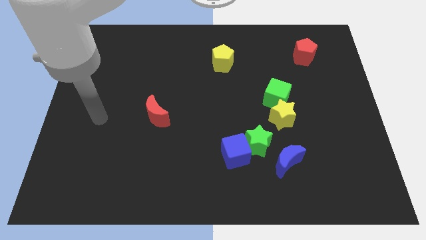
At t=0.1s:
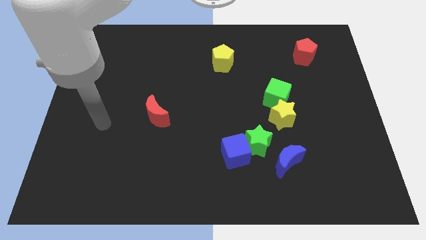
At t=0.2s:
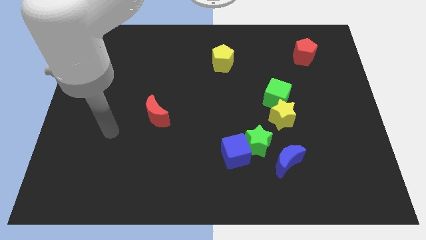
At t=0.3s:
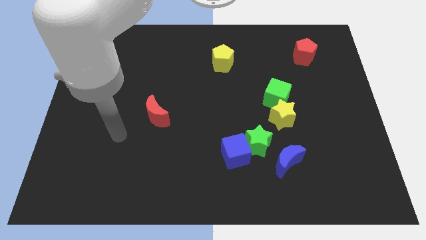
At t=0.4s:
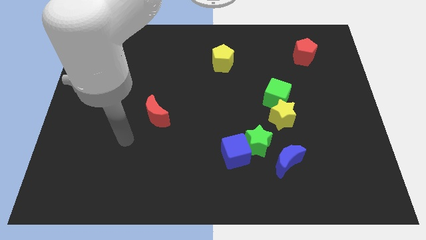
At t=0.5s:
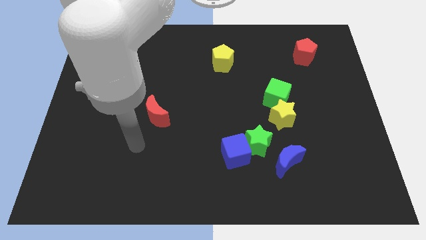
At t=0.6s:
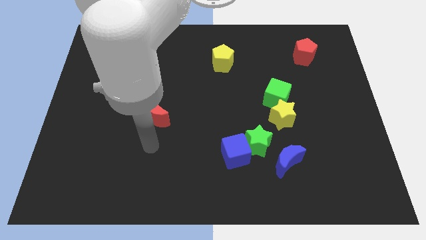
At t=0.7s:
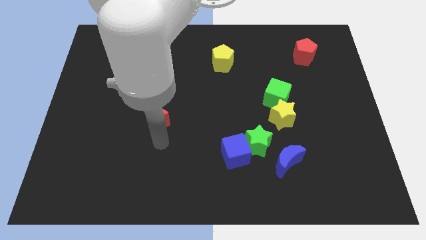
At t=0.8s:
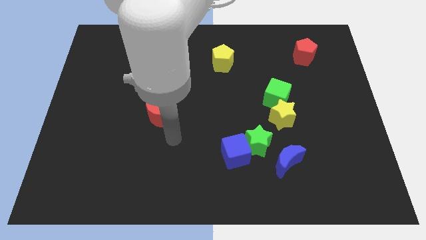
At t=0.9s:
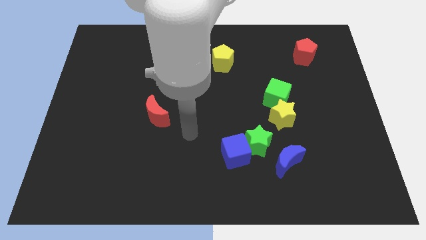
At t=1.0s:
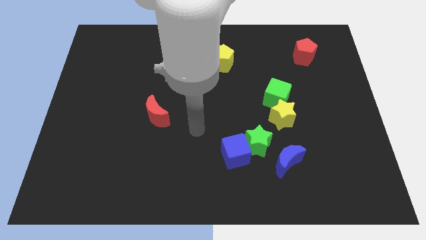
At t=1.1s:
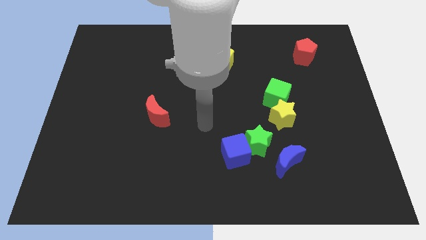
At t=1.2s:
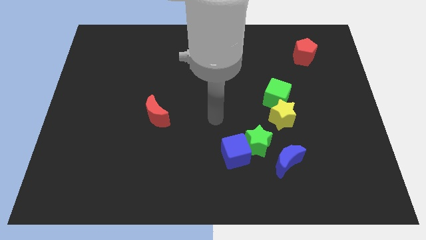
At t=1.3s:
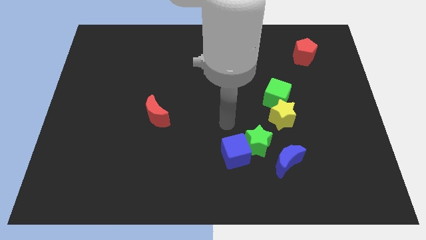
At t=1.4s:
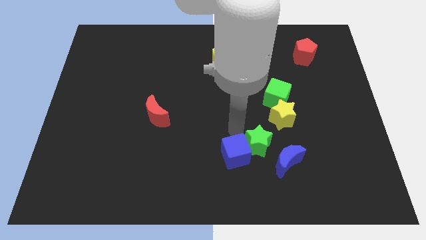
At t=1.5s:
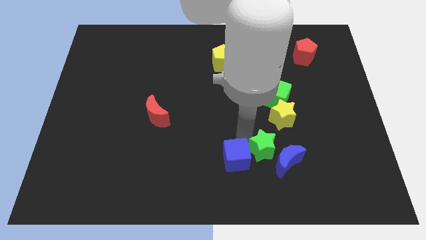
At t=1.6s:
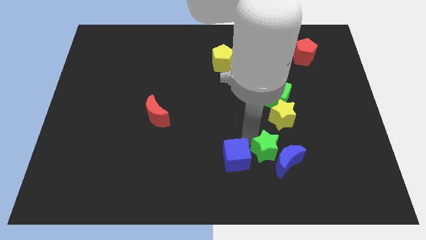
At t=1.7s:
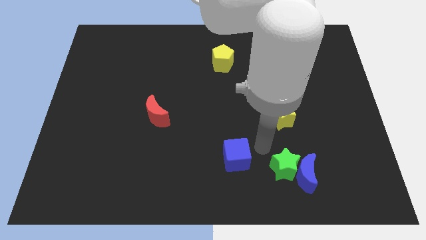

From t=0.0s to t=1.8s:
separate the blue cube from the green star

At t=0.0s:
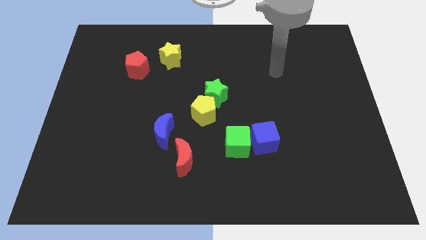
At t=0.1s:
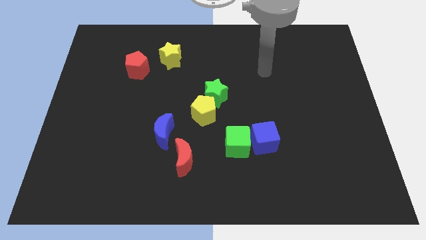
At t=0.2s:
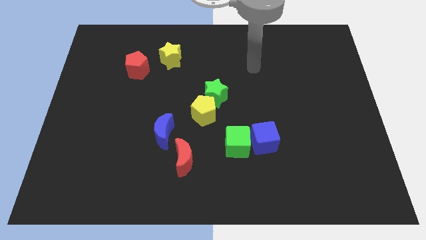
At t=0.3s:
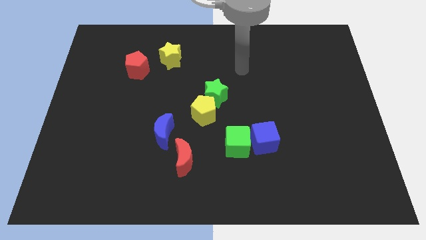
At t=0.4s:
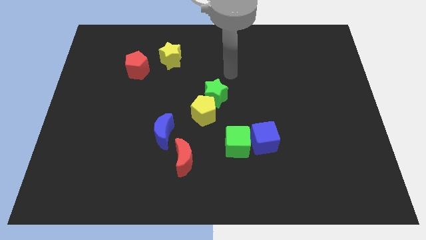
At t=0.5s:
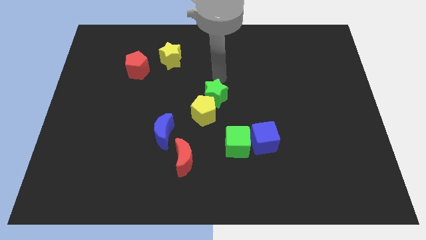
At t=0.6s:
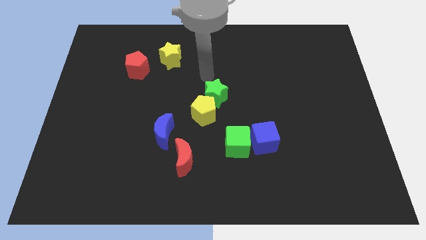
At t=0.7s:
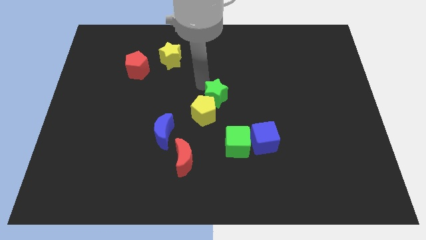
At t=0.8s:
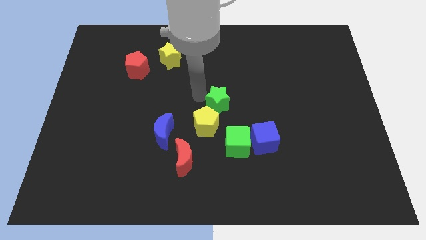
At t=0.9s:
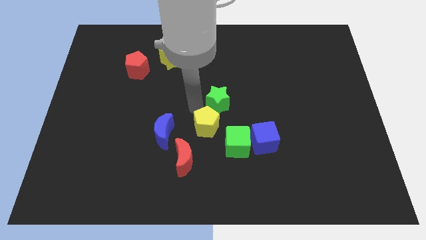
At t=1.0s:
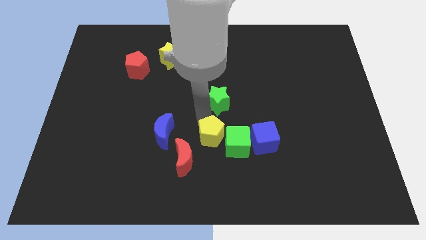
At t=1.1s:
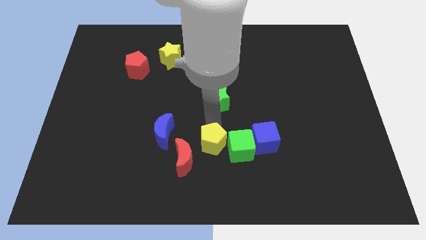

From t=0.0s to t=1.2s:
move the green star away from the yellow pentagon

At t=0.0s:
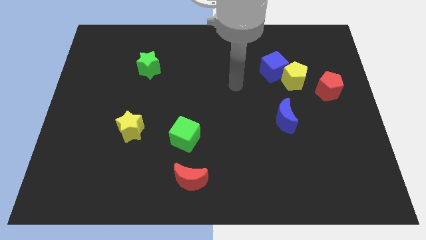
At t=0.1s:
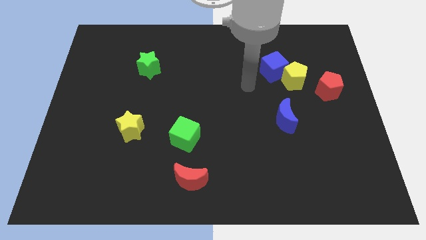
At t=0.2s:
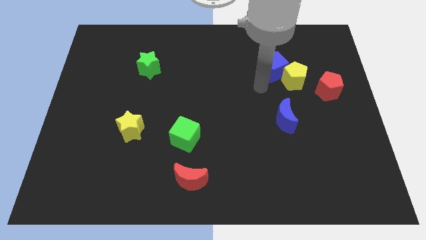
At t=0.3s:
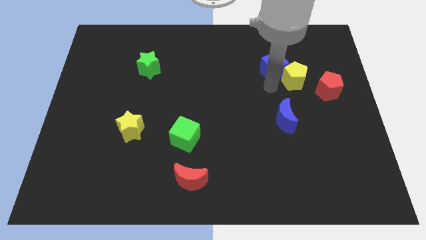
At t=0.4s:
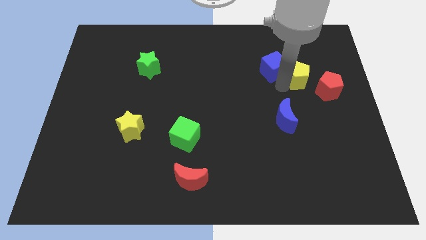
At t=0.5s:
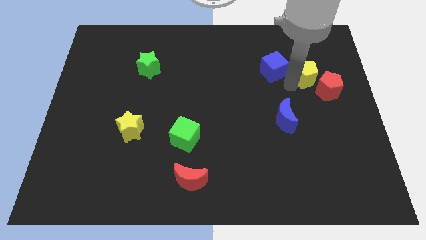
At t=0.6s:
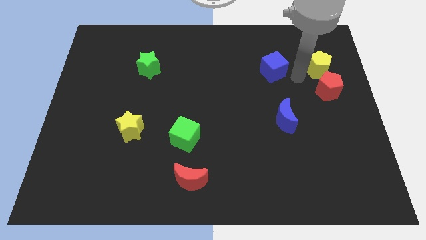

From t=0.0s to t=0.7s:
pull the blue cube apart from the yellow pentagon

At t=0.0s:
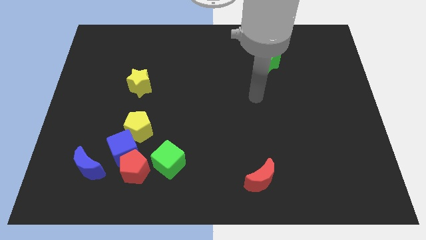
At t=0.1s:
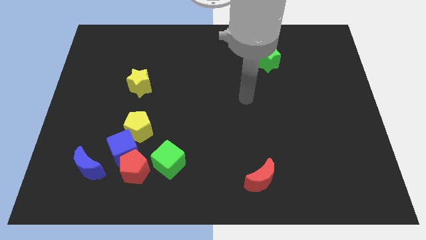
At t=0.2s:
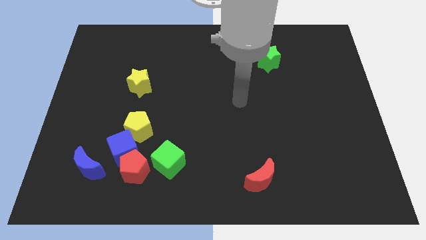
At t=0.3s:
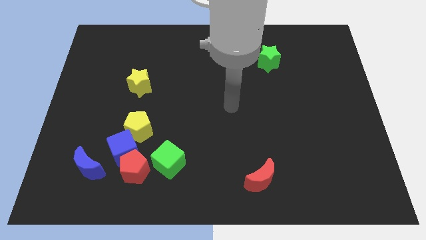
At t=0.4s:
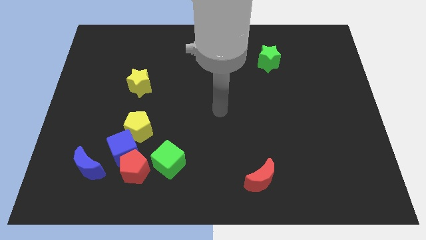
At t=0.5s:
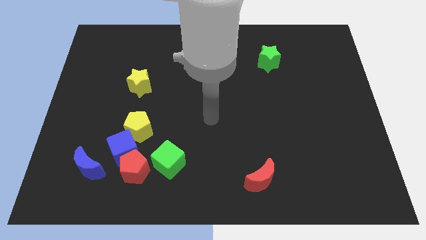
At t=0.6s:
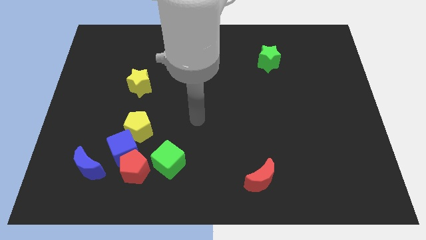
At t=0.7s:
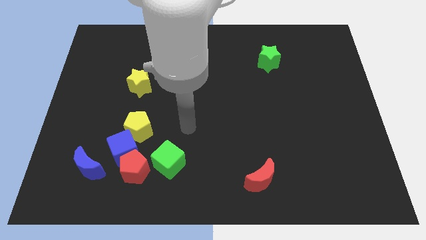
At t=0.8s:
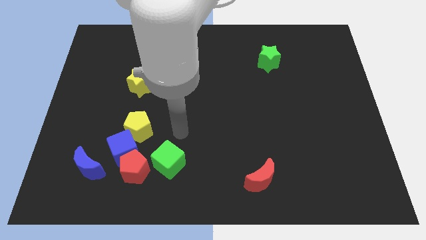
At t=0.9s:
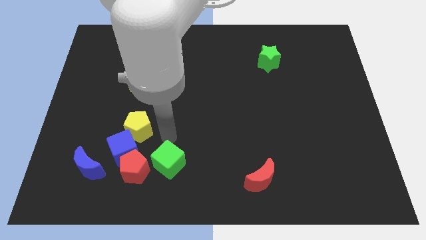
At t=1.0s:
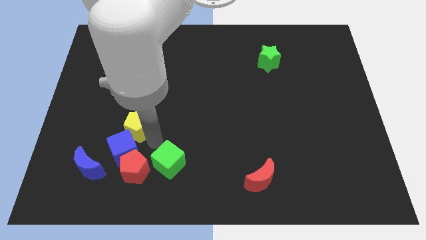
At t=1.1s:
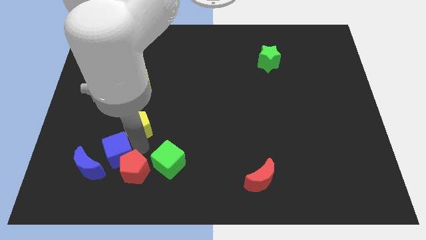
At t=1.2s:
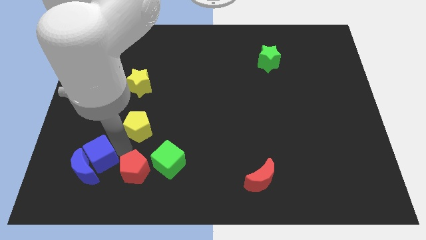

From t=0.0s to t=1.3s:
move the yellow pentagon away from the blue cube

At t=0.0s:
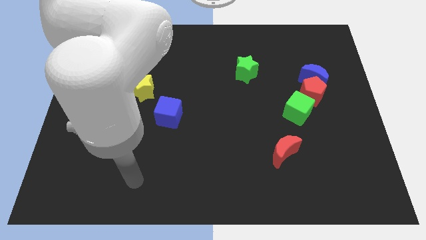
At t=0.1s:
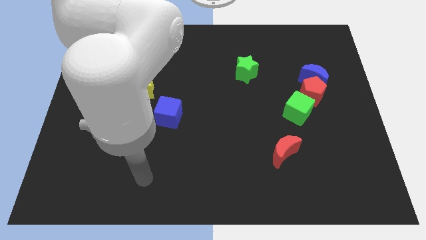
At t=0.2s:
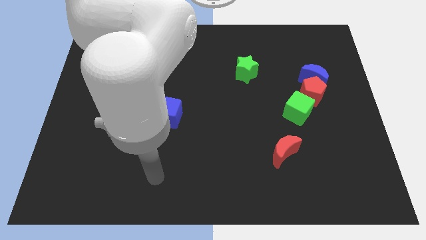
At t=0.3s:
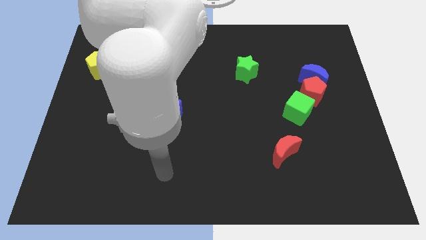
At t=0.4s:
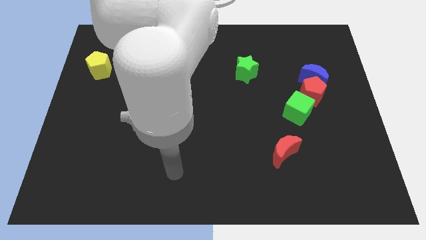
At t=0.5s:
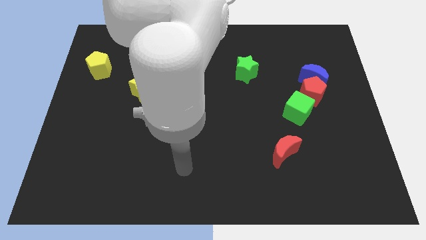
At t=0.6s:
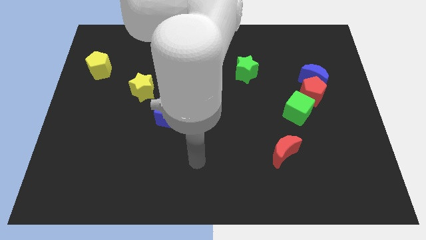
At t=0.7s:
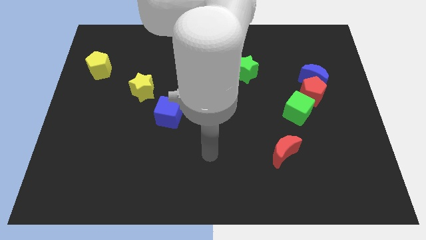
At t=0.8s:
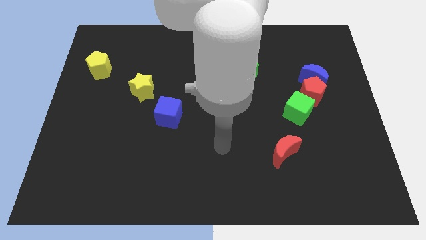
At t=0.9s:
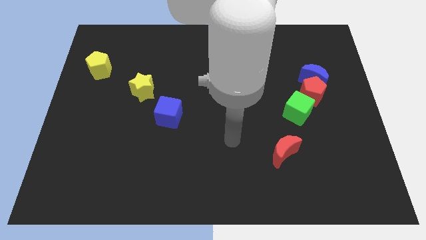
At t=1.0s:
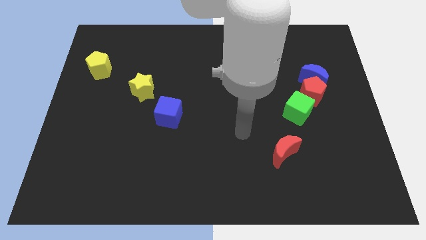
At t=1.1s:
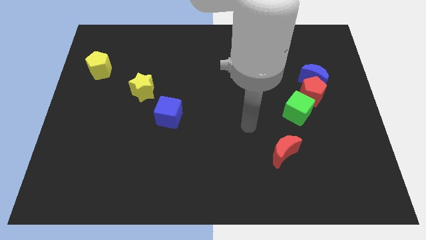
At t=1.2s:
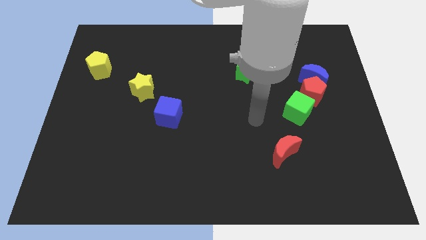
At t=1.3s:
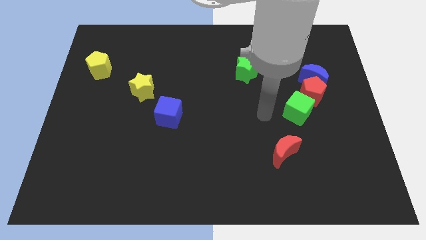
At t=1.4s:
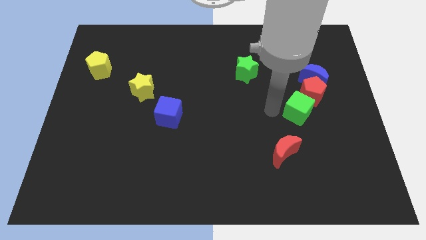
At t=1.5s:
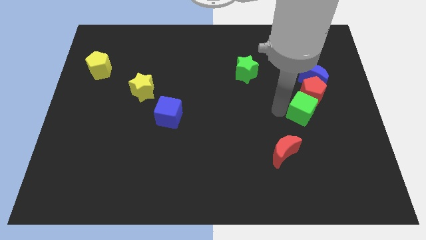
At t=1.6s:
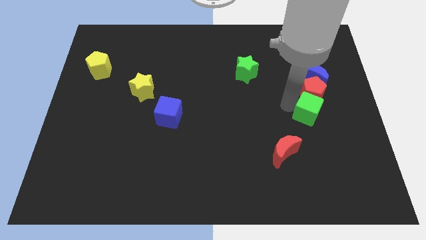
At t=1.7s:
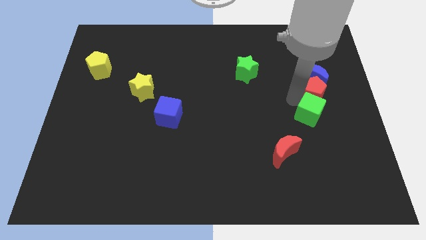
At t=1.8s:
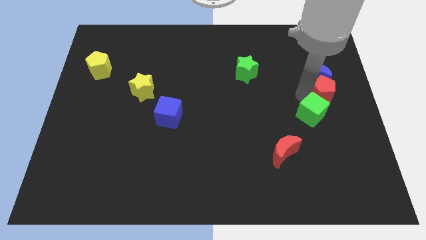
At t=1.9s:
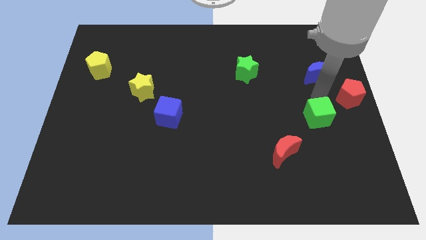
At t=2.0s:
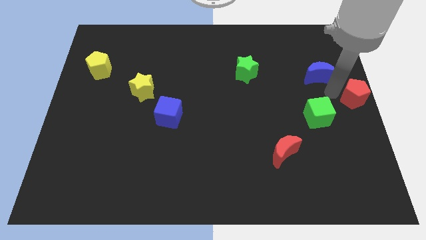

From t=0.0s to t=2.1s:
separate the blue moon from the red pentagon

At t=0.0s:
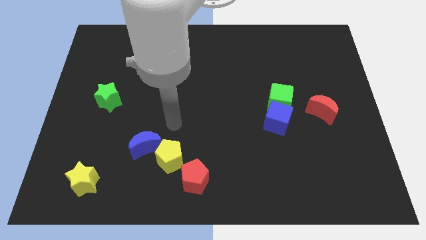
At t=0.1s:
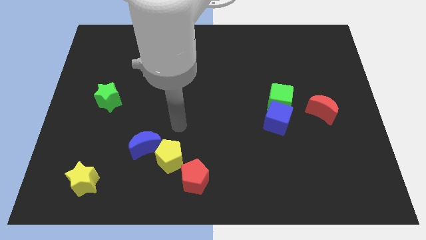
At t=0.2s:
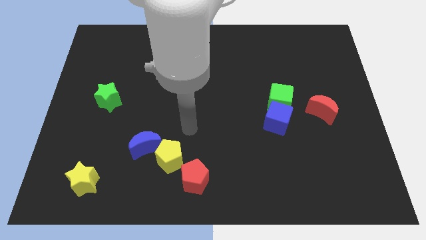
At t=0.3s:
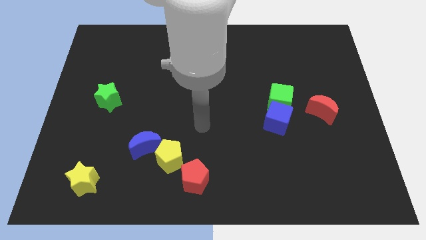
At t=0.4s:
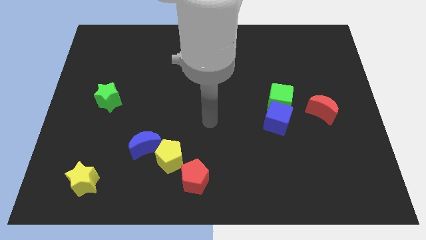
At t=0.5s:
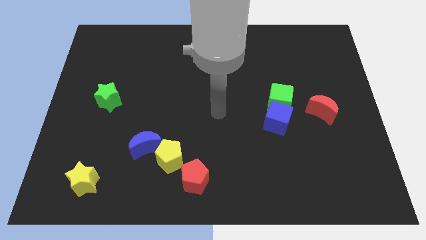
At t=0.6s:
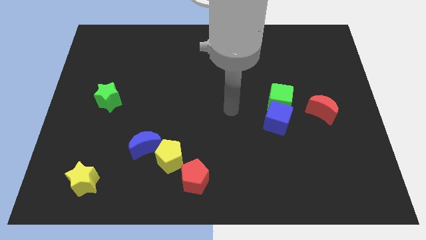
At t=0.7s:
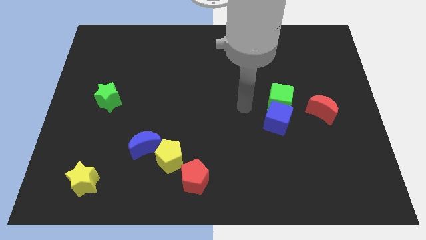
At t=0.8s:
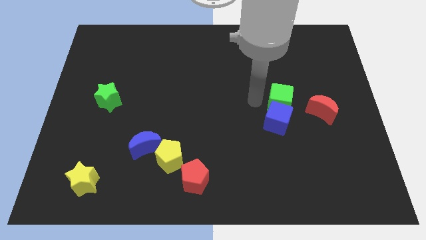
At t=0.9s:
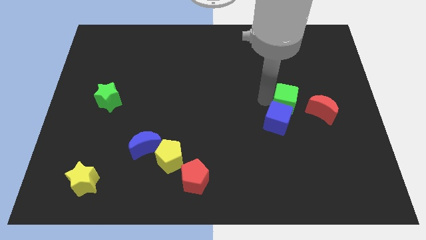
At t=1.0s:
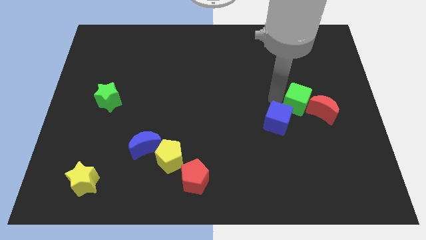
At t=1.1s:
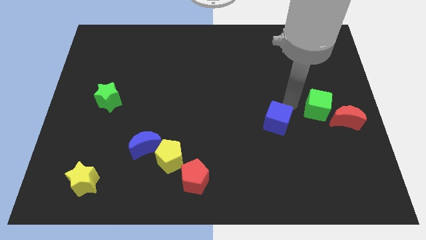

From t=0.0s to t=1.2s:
separate the blue cube from the green cube

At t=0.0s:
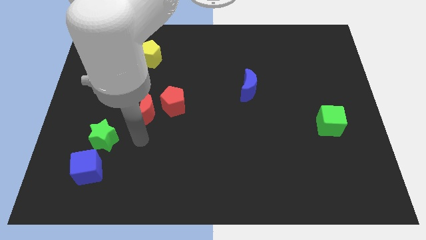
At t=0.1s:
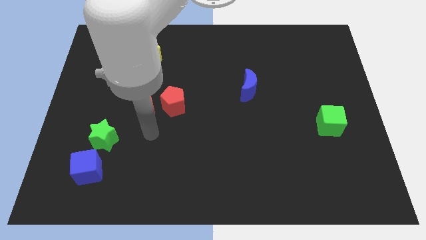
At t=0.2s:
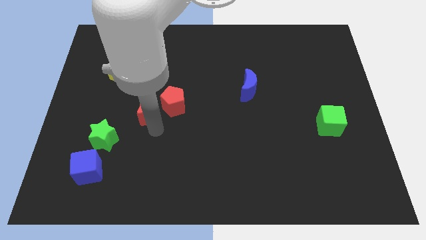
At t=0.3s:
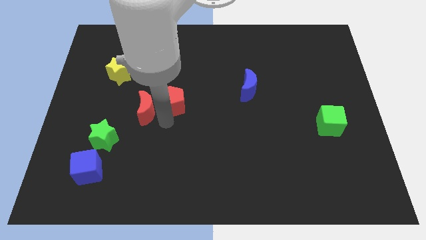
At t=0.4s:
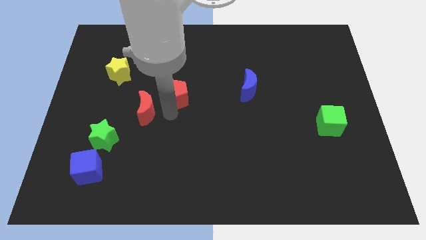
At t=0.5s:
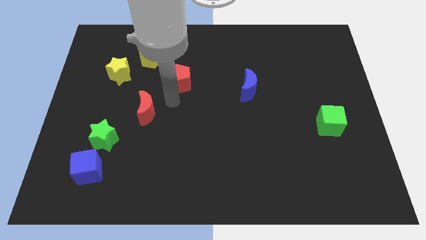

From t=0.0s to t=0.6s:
move the red moon away from the red pentagon

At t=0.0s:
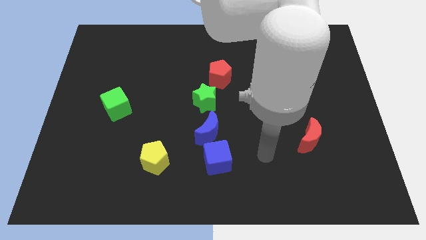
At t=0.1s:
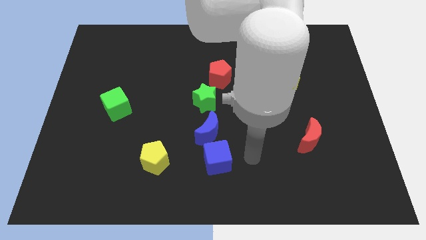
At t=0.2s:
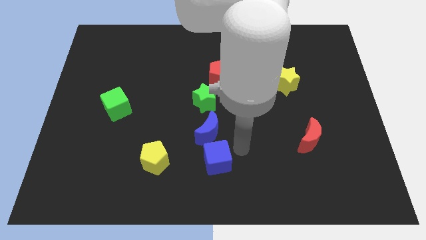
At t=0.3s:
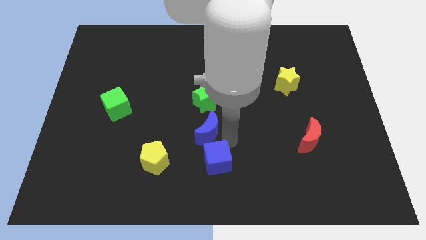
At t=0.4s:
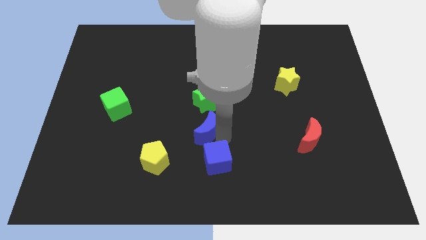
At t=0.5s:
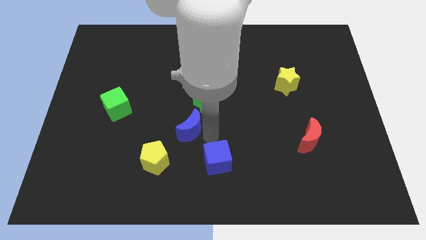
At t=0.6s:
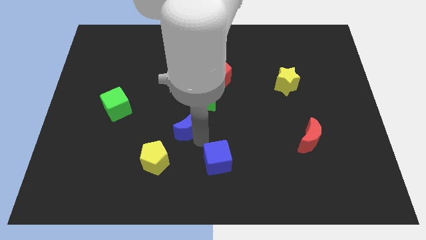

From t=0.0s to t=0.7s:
pull the blue cube apart from the blue moon
